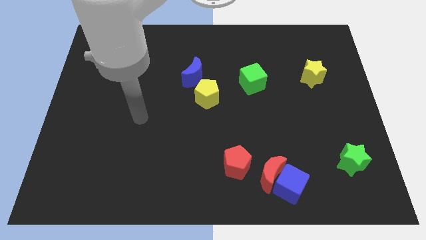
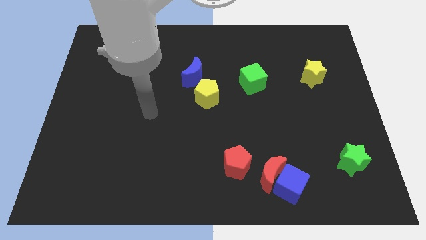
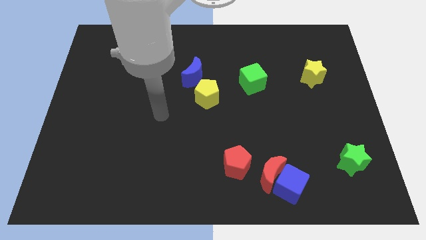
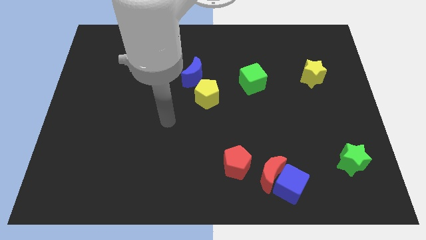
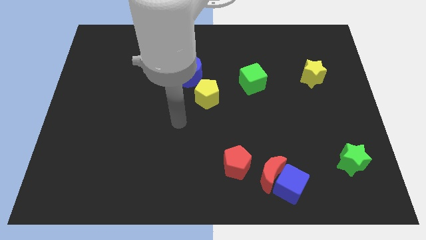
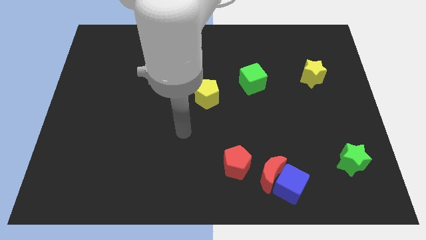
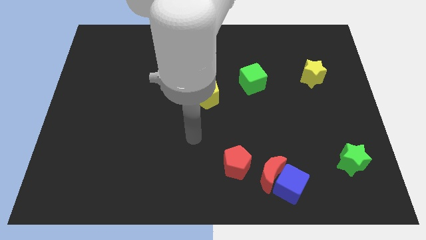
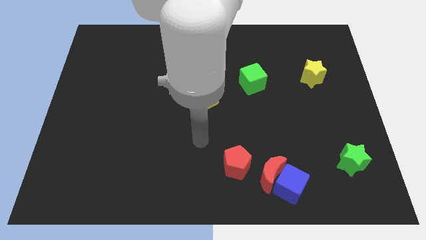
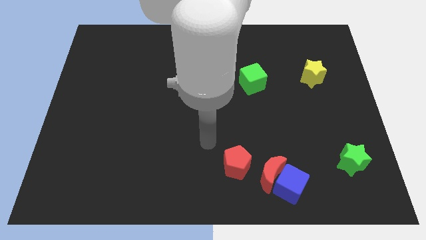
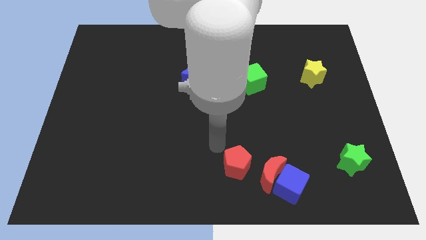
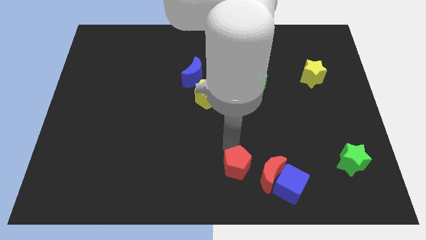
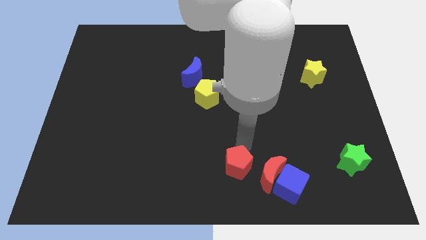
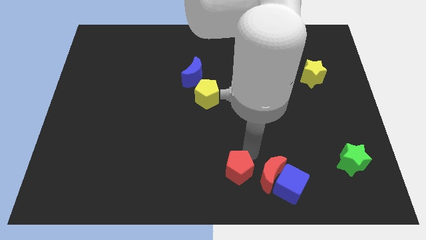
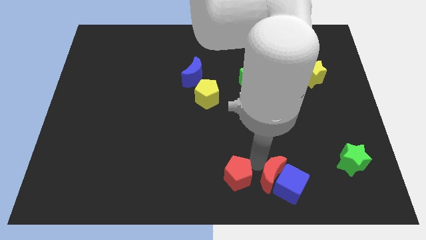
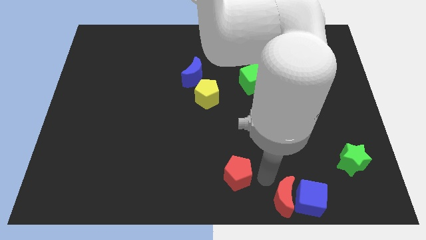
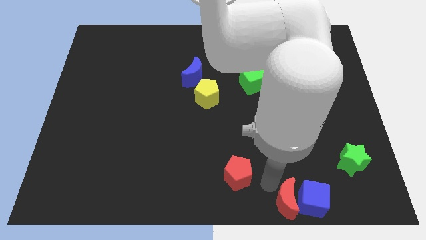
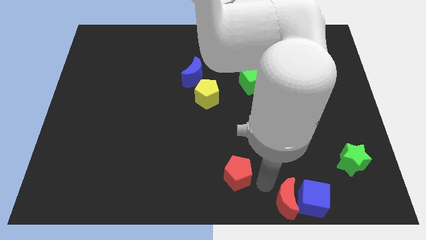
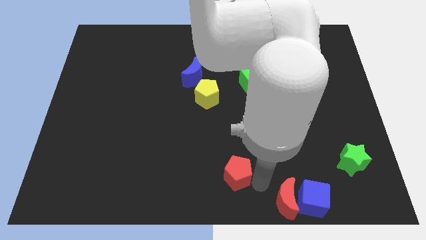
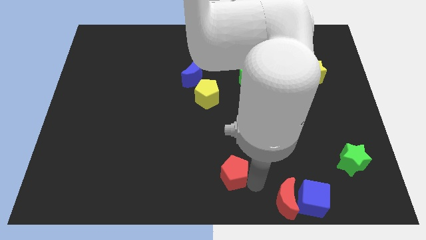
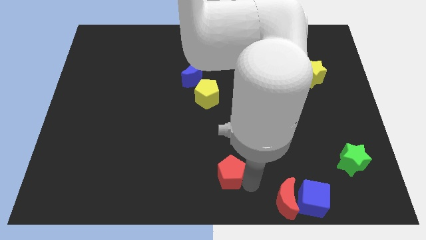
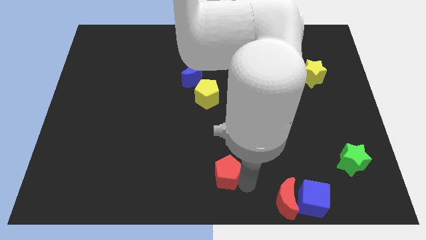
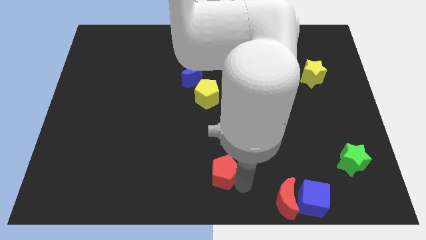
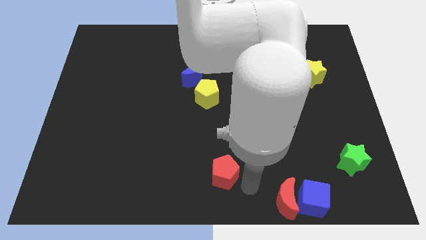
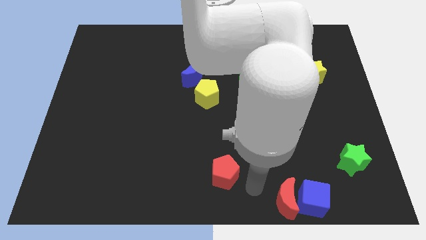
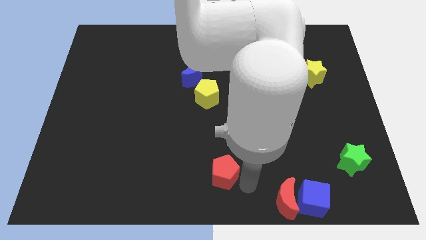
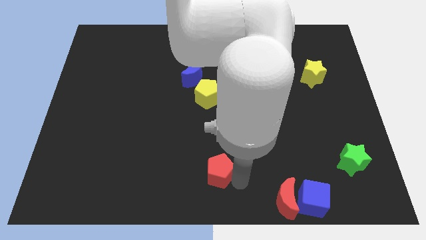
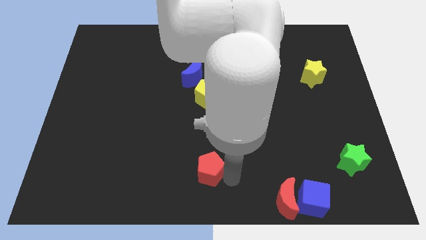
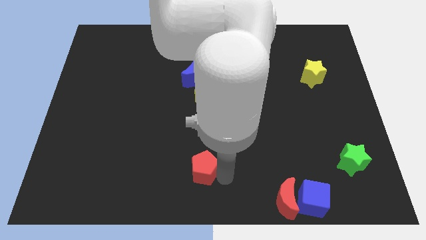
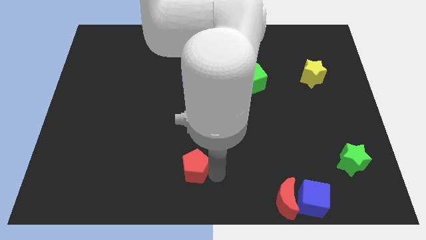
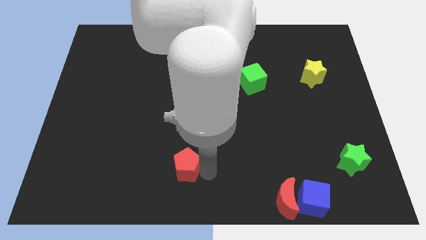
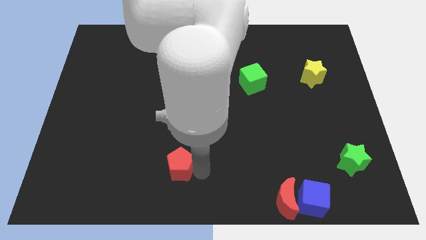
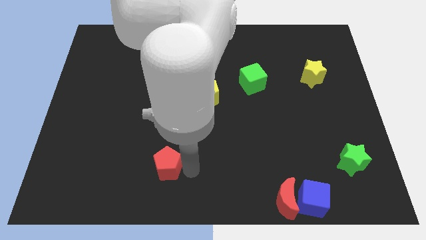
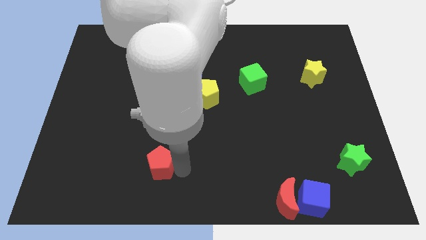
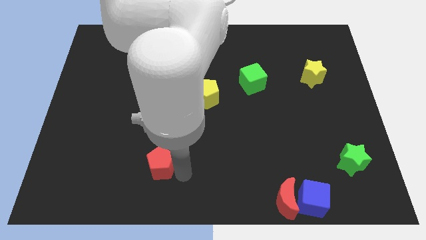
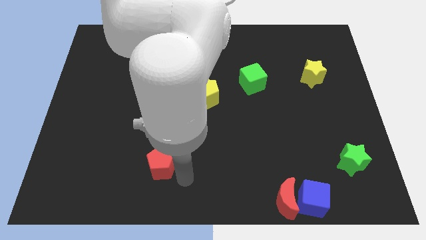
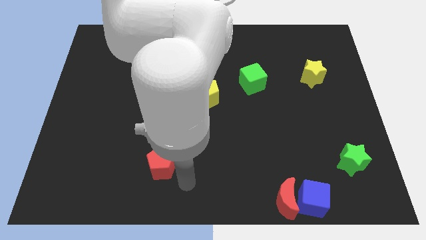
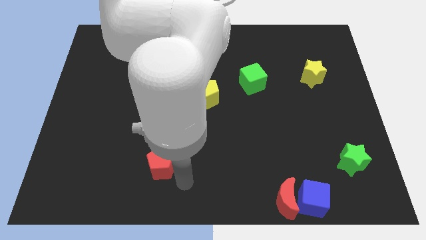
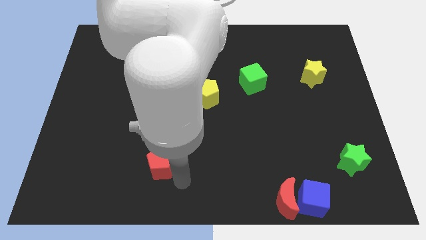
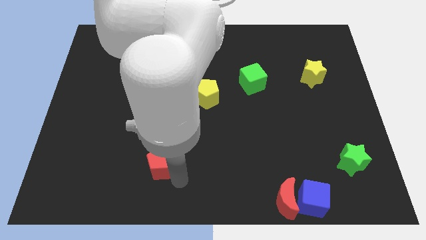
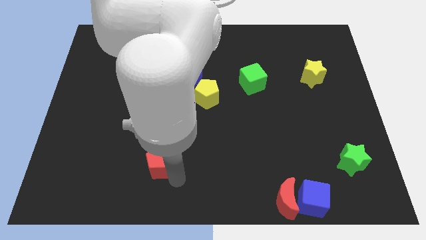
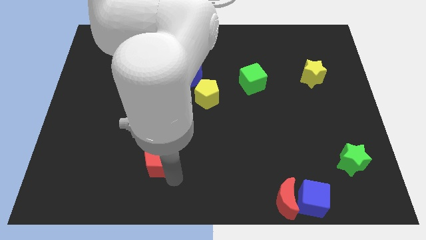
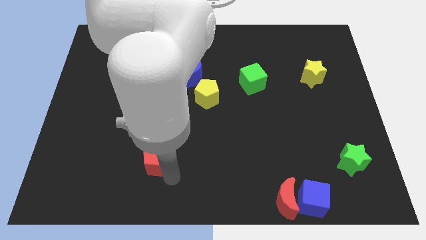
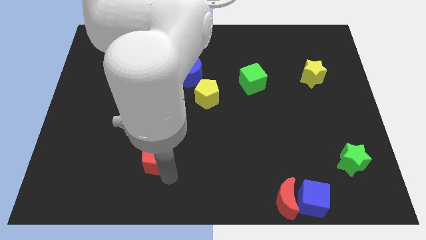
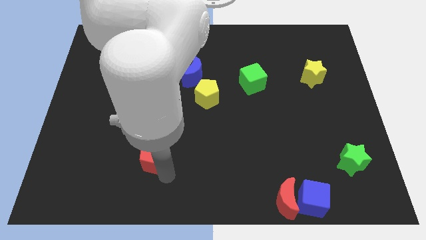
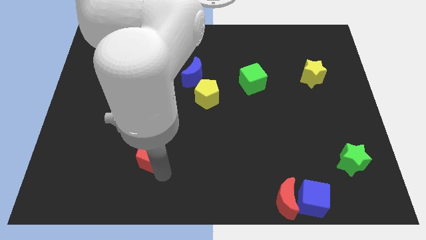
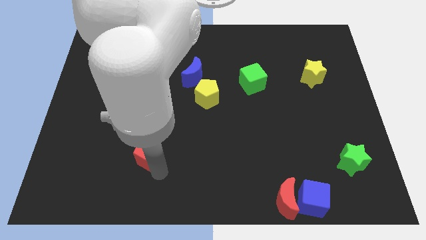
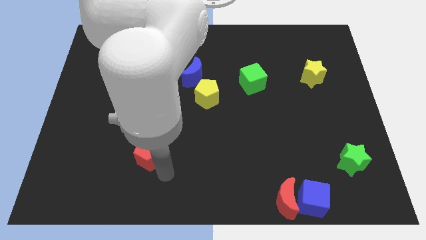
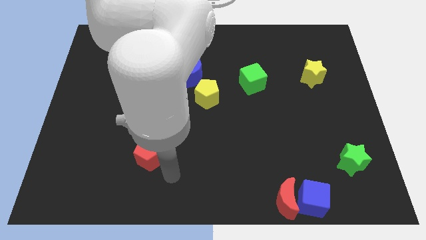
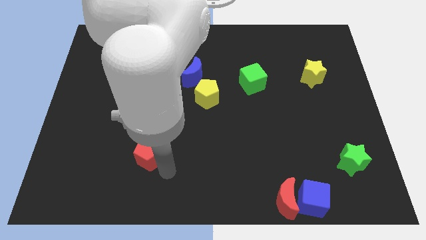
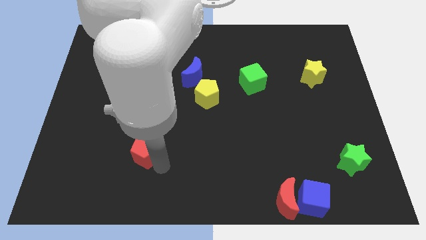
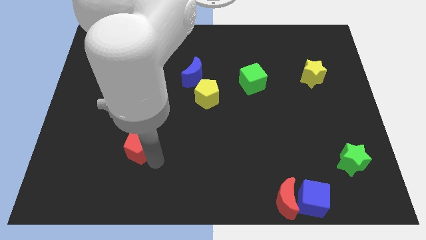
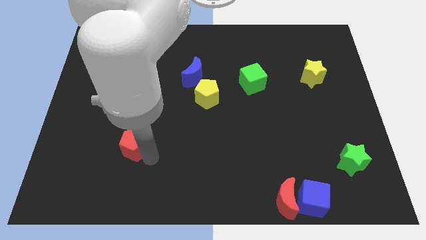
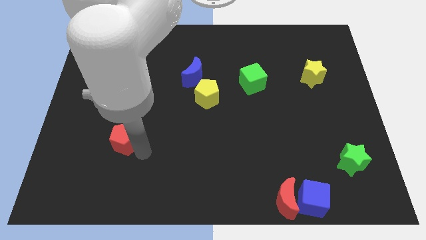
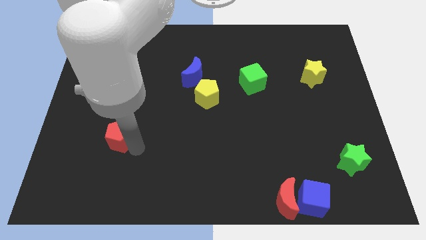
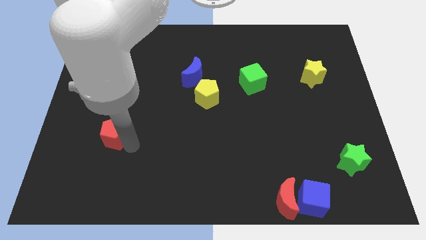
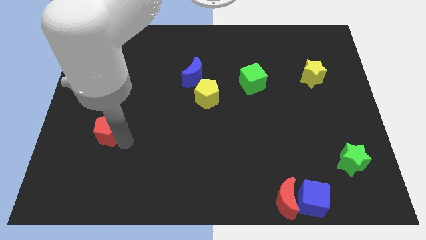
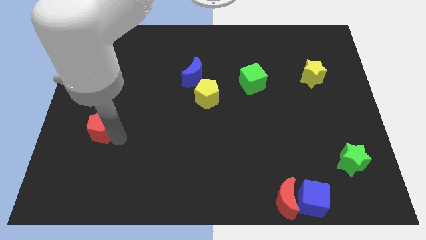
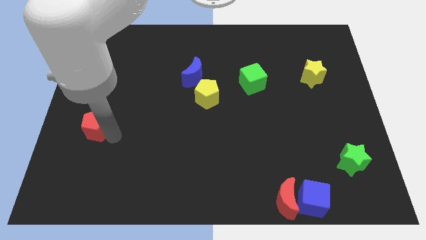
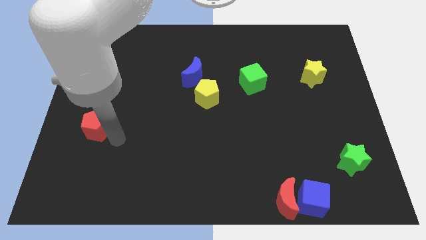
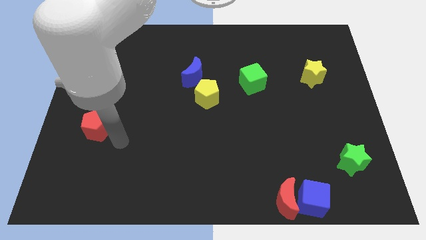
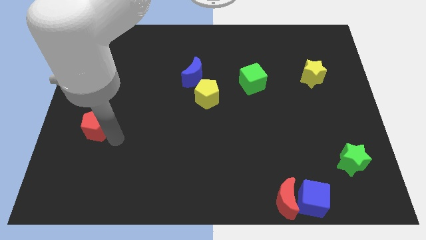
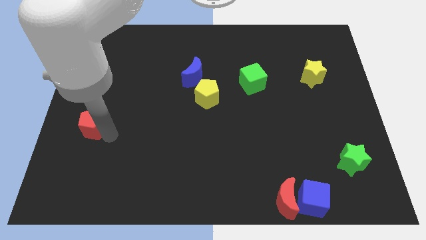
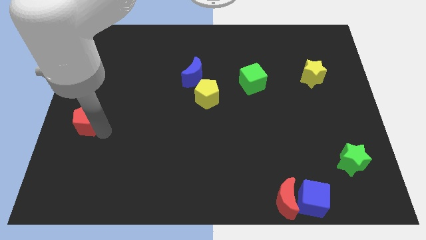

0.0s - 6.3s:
move the red pentagon to the left side

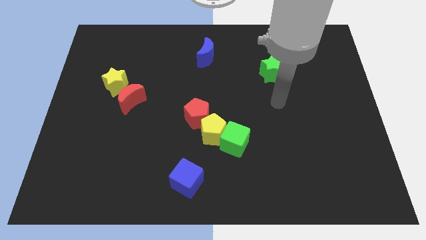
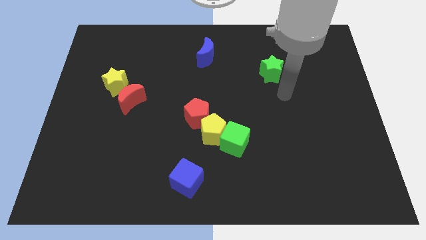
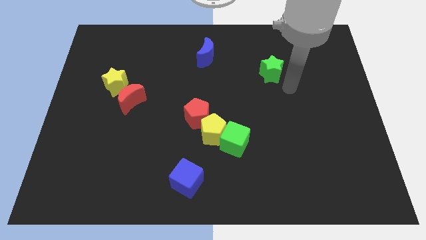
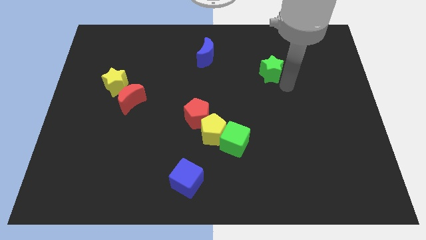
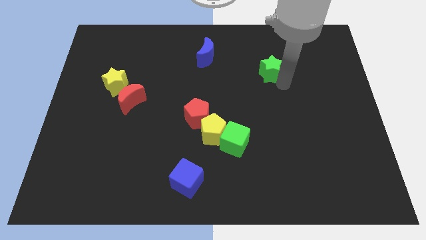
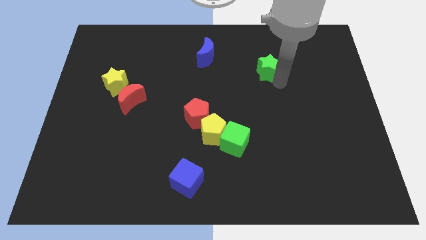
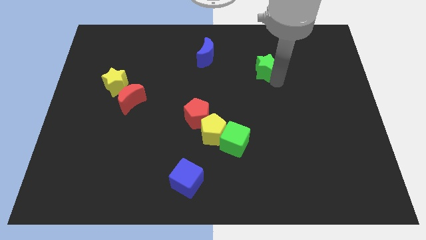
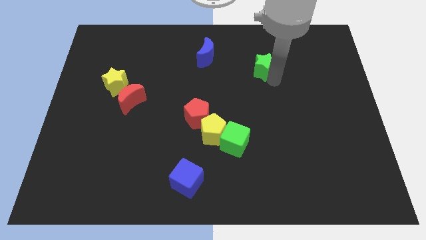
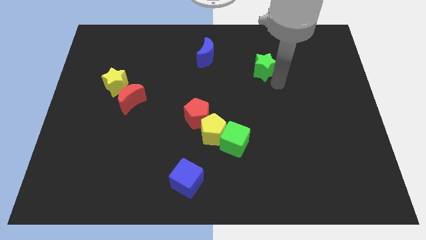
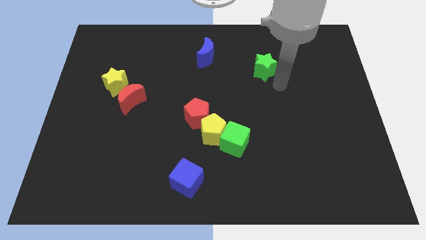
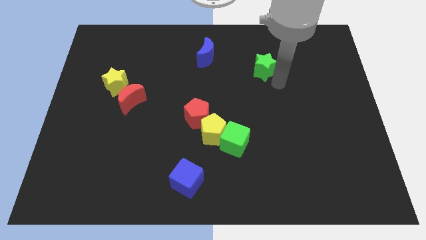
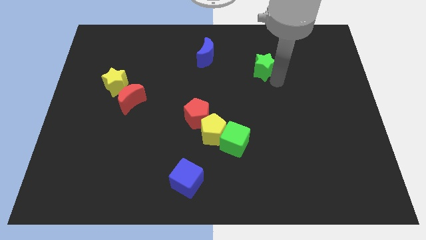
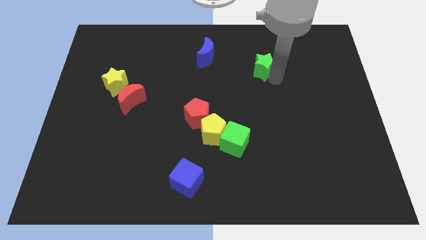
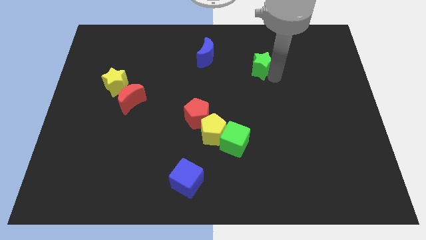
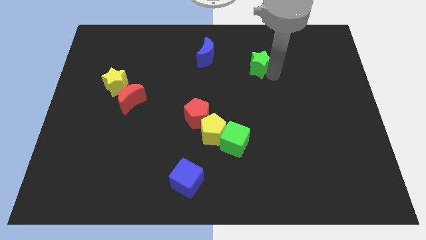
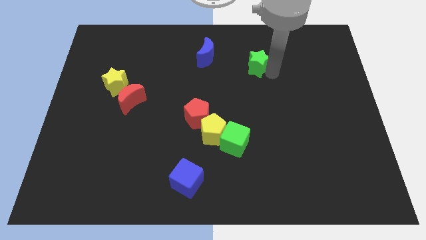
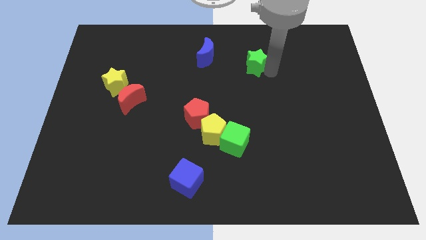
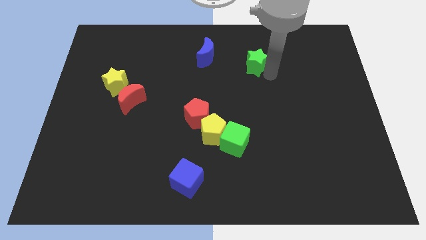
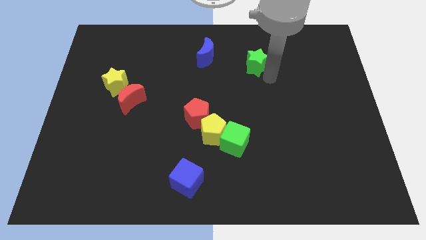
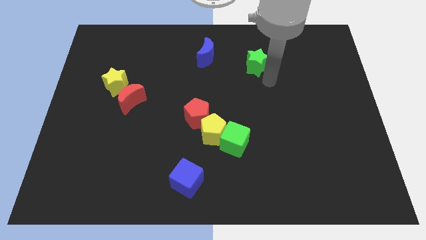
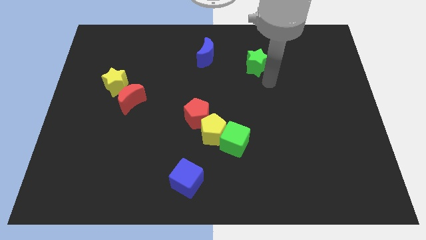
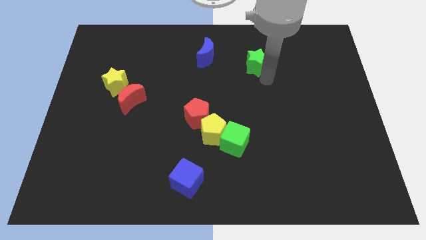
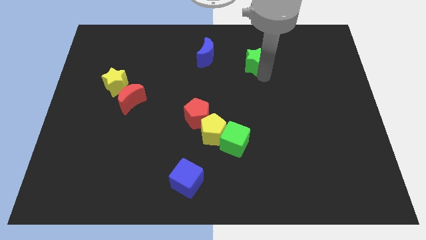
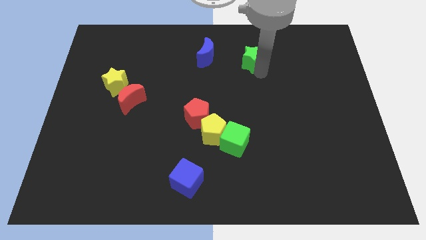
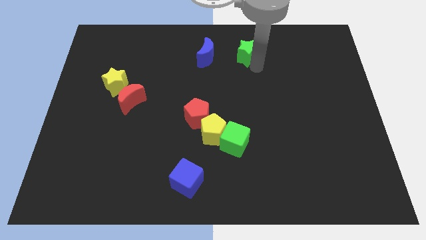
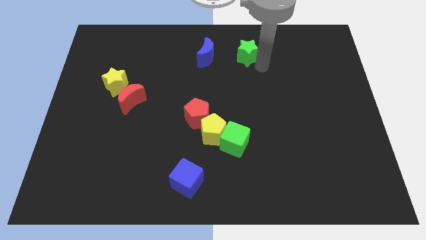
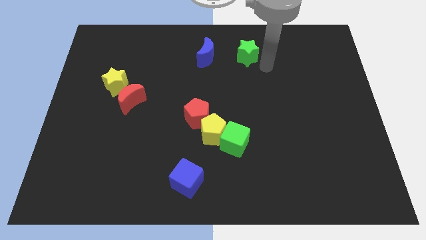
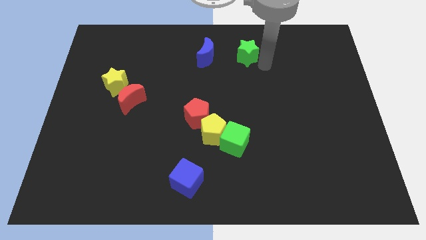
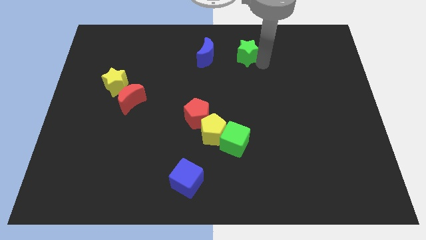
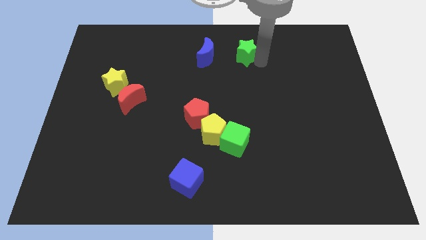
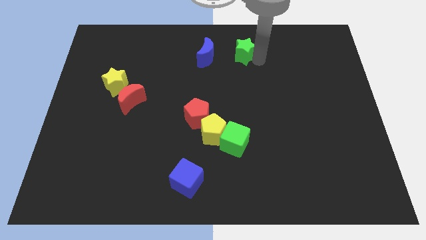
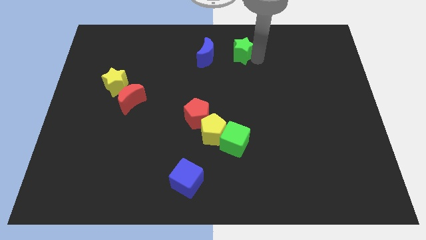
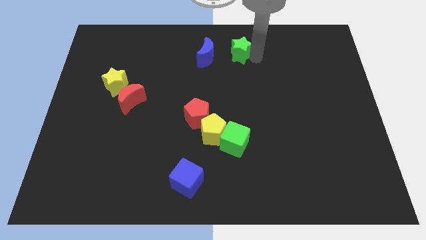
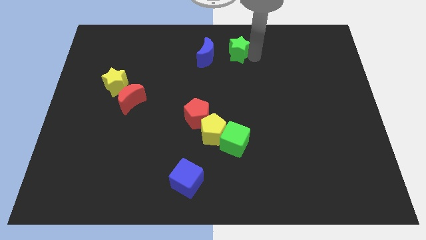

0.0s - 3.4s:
push the green star to the top
